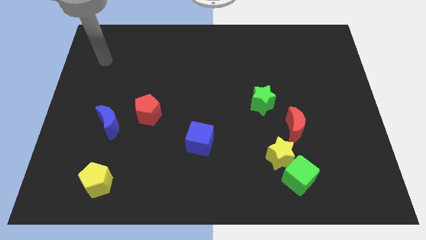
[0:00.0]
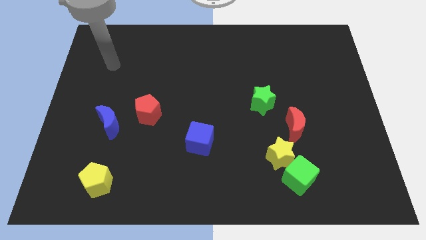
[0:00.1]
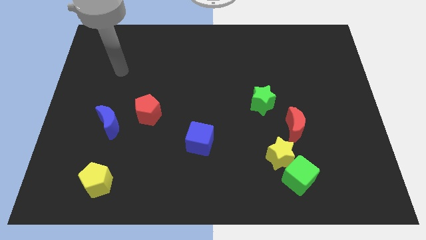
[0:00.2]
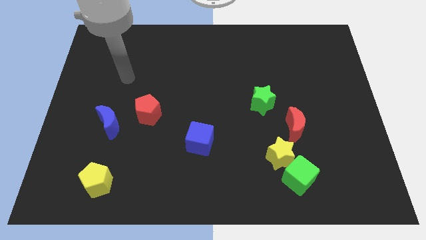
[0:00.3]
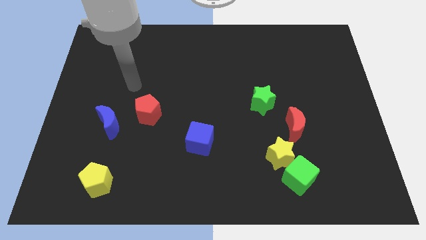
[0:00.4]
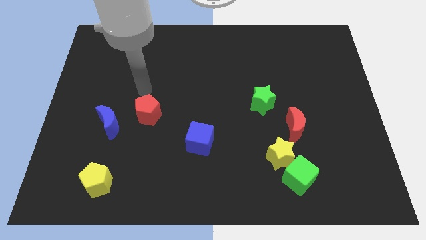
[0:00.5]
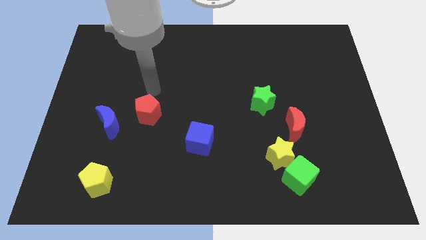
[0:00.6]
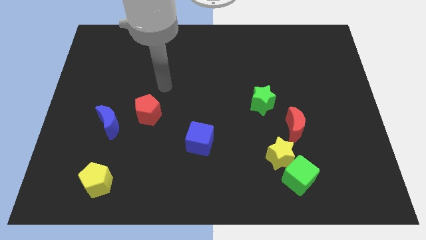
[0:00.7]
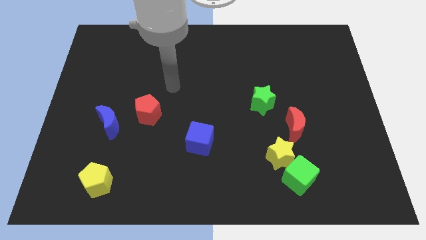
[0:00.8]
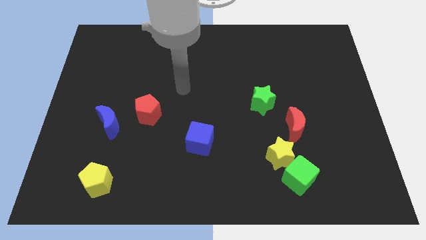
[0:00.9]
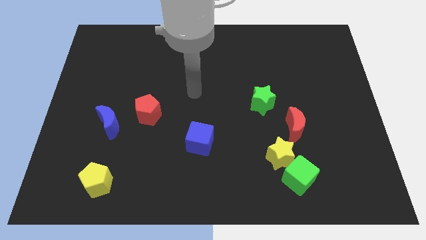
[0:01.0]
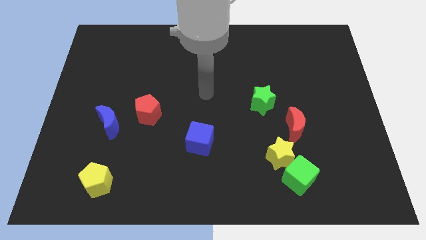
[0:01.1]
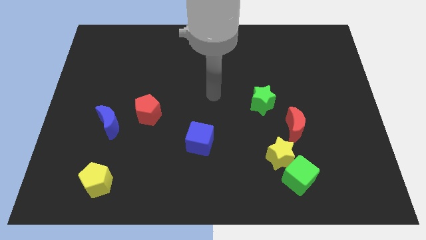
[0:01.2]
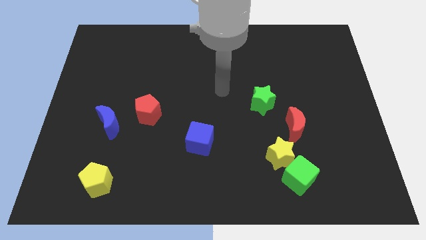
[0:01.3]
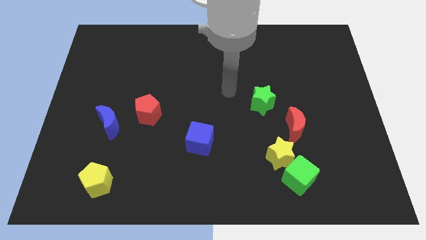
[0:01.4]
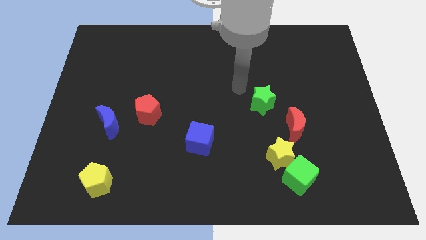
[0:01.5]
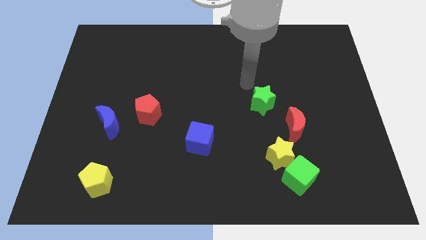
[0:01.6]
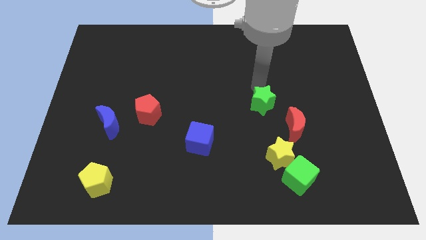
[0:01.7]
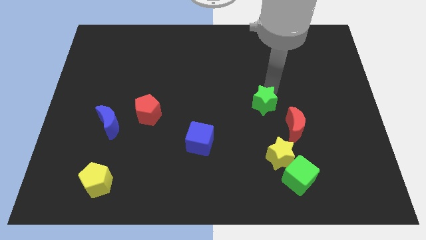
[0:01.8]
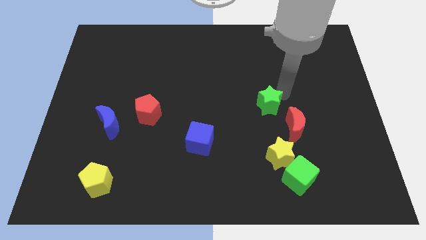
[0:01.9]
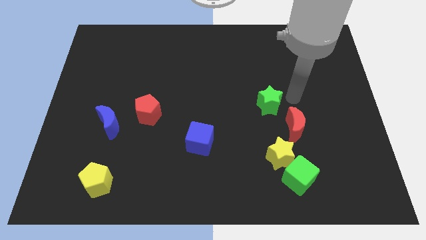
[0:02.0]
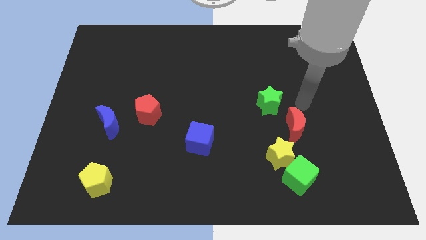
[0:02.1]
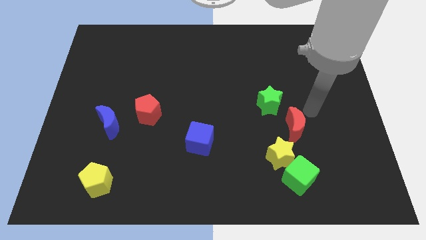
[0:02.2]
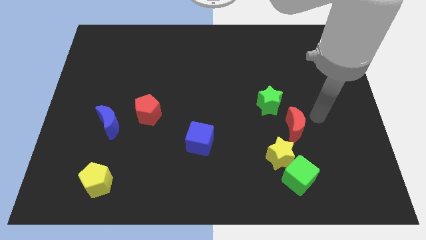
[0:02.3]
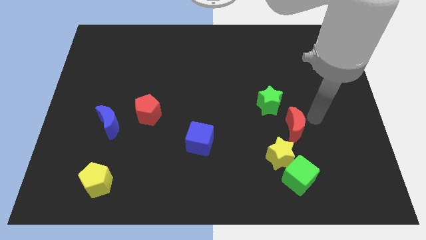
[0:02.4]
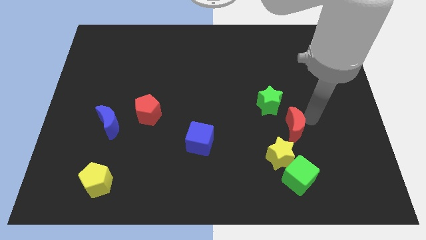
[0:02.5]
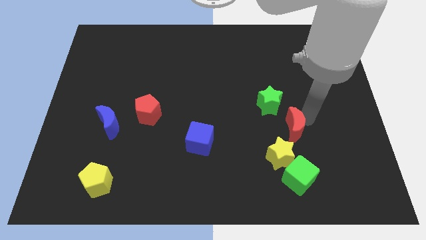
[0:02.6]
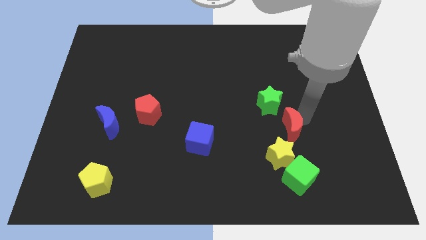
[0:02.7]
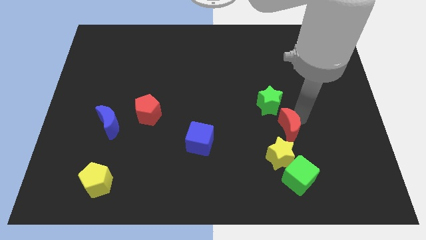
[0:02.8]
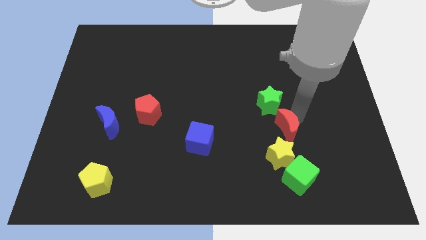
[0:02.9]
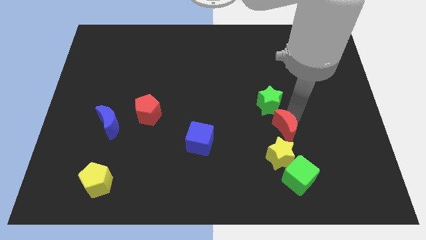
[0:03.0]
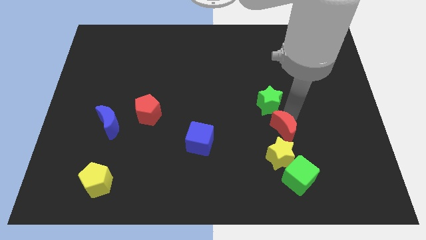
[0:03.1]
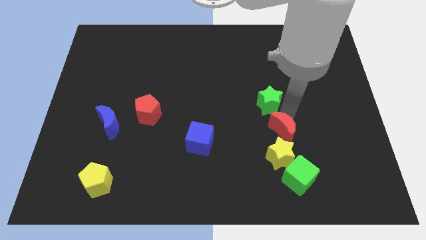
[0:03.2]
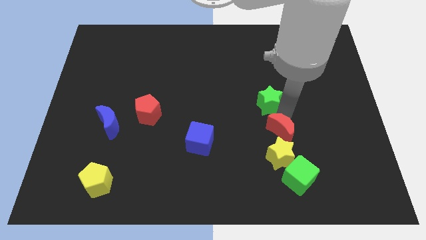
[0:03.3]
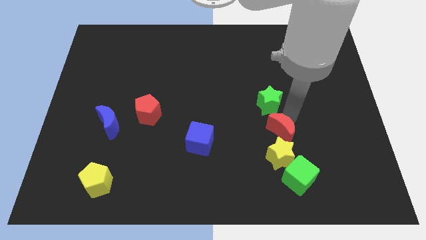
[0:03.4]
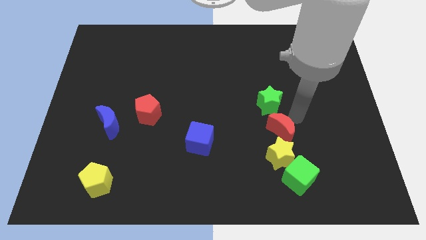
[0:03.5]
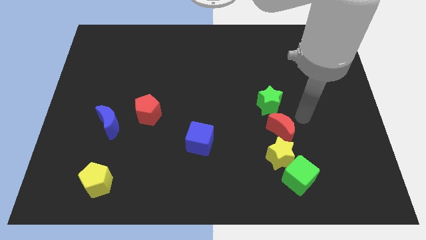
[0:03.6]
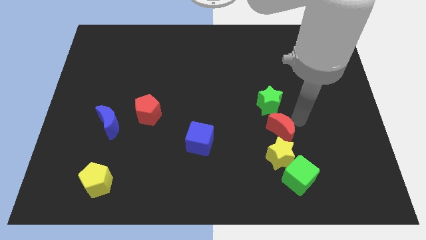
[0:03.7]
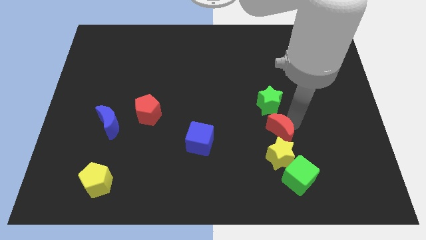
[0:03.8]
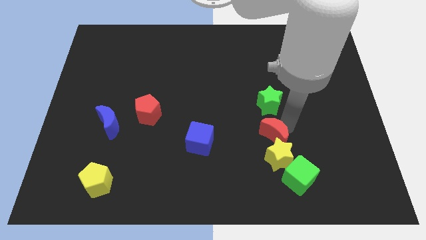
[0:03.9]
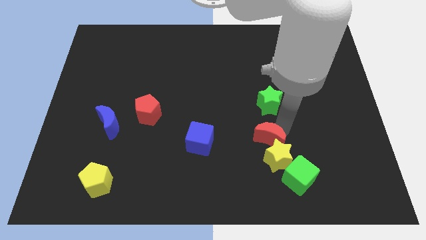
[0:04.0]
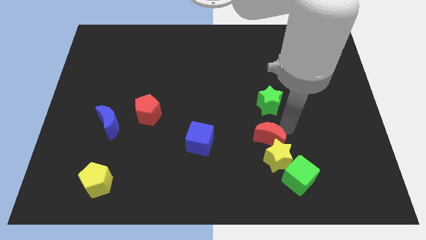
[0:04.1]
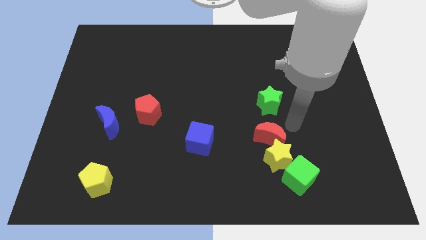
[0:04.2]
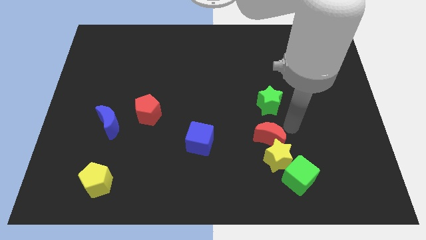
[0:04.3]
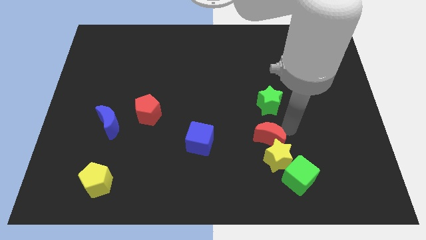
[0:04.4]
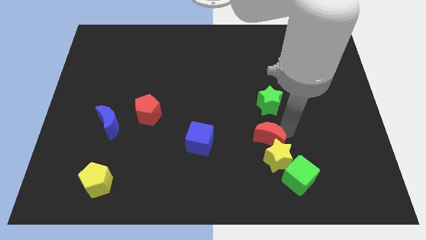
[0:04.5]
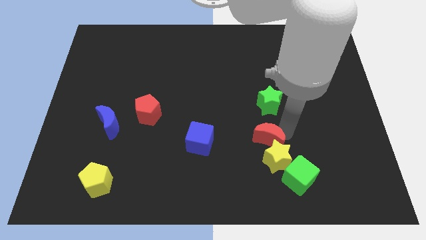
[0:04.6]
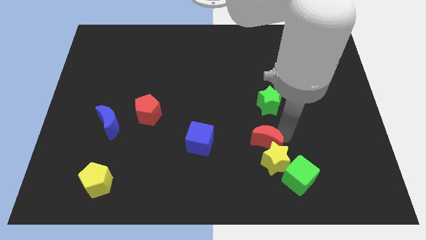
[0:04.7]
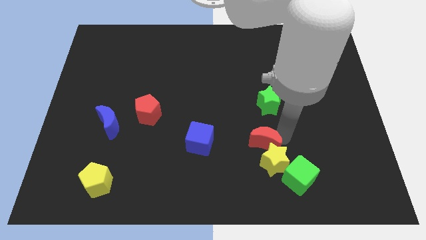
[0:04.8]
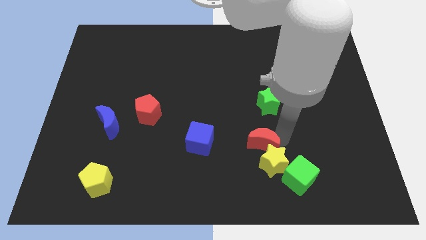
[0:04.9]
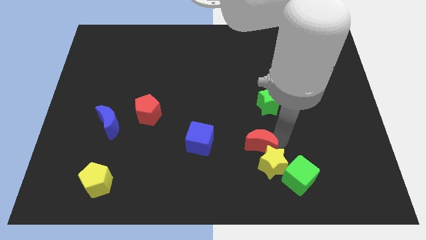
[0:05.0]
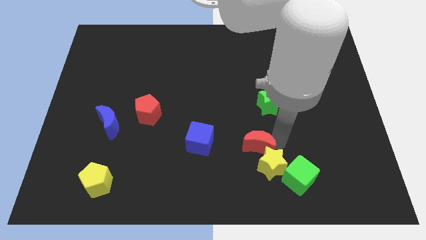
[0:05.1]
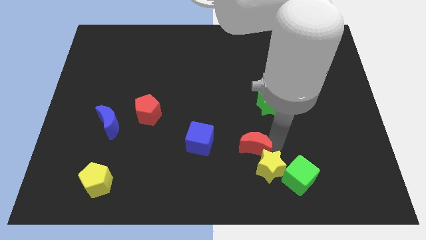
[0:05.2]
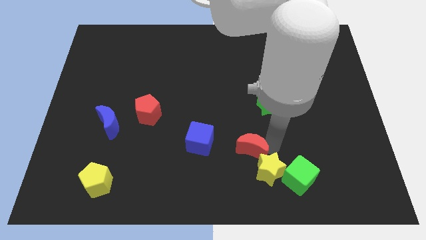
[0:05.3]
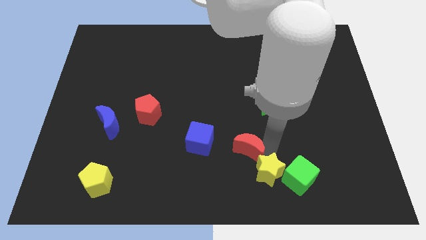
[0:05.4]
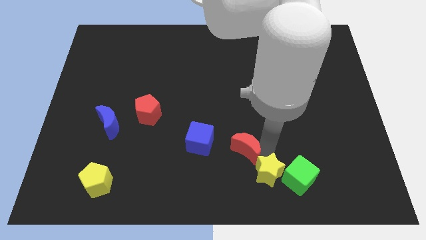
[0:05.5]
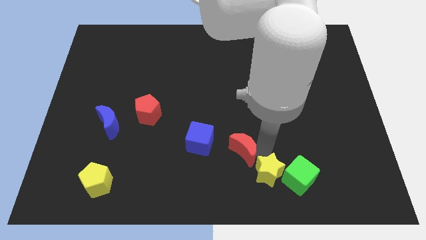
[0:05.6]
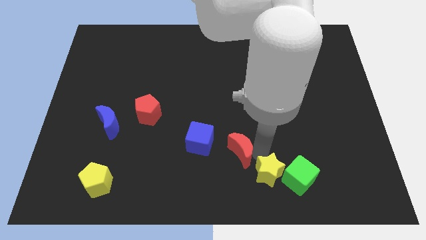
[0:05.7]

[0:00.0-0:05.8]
slide the red moon to the bottom right of the blue cube

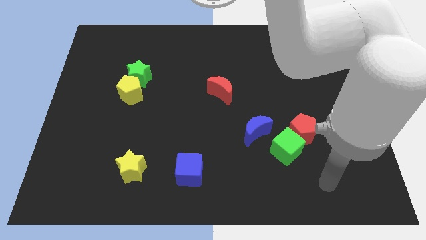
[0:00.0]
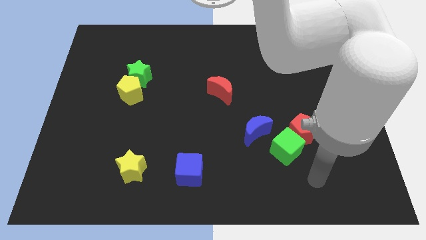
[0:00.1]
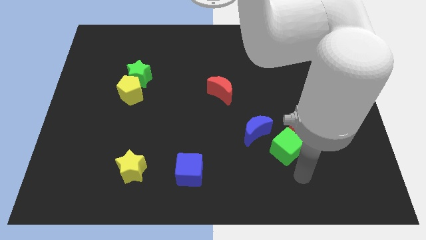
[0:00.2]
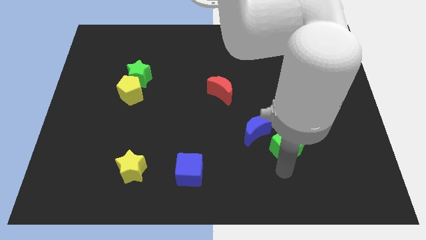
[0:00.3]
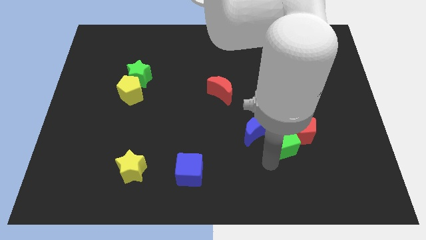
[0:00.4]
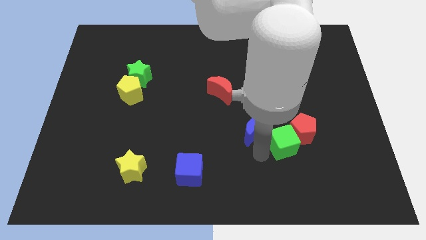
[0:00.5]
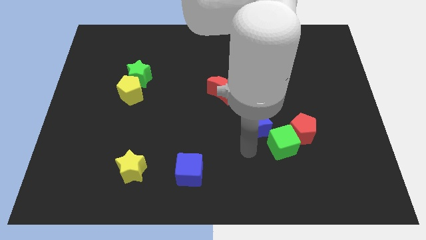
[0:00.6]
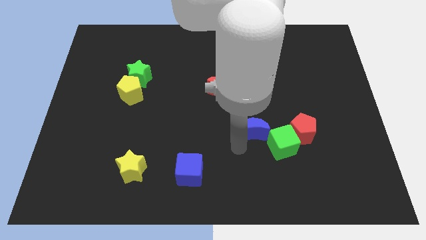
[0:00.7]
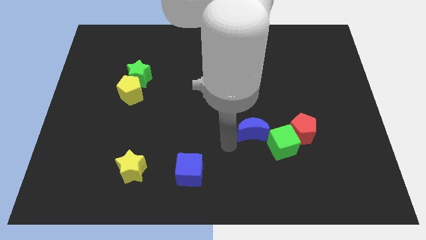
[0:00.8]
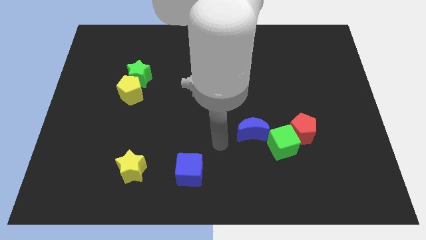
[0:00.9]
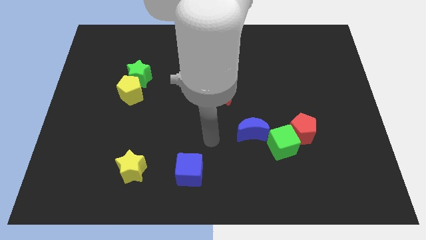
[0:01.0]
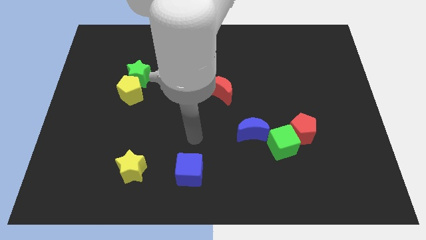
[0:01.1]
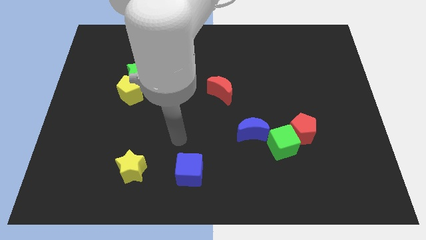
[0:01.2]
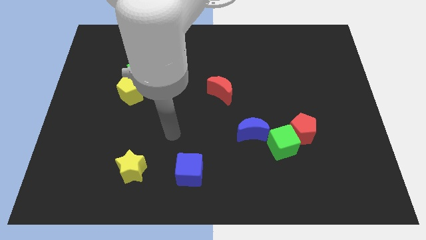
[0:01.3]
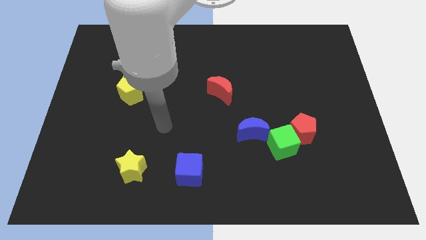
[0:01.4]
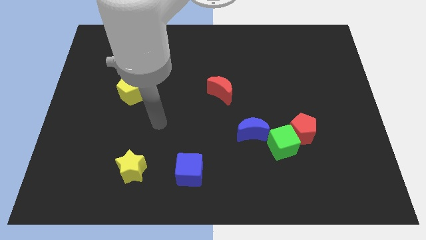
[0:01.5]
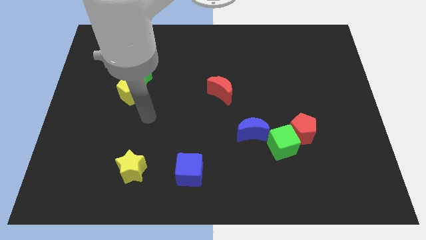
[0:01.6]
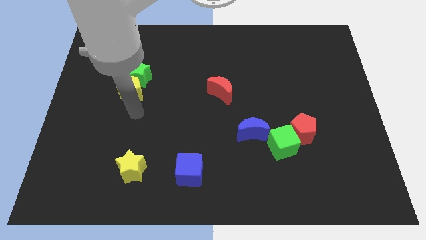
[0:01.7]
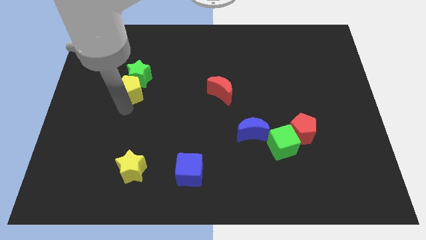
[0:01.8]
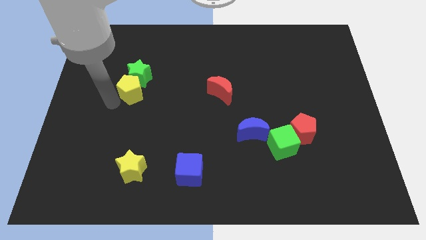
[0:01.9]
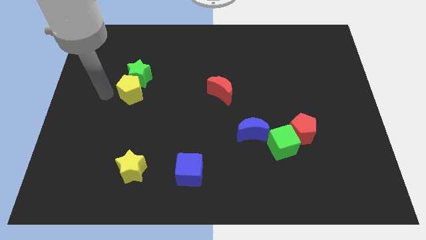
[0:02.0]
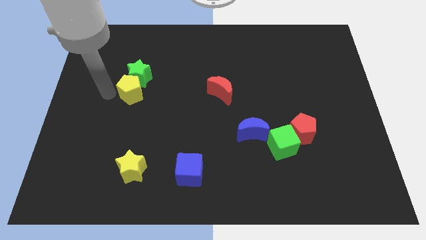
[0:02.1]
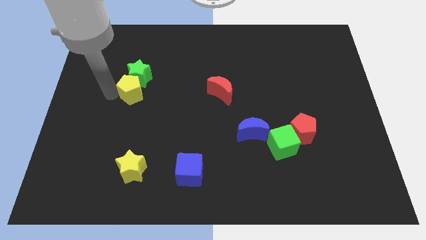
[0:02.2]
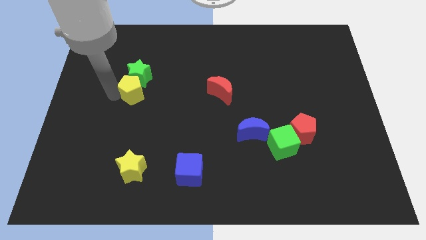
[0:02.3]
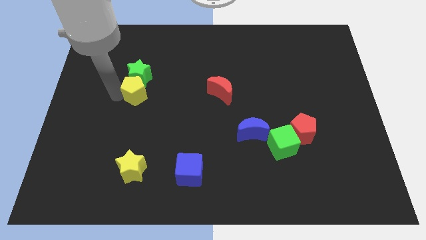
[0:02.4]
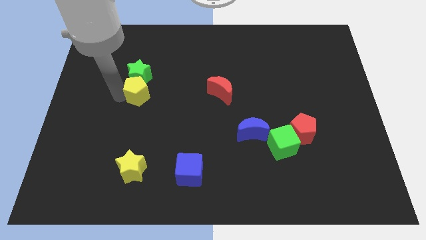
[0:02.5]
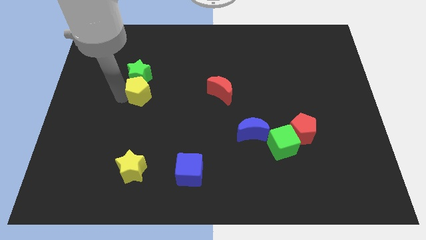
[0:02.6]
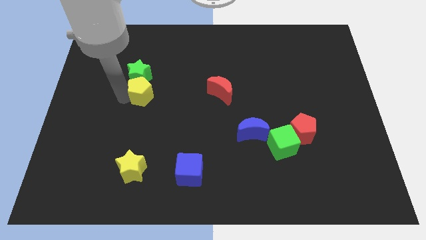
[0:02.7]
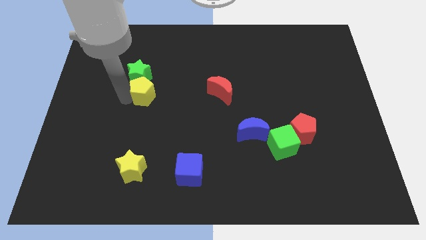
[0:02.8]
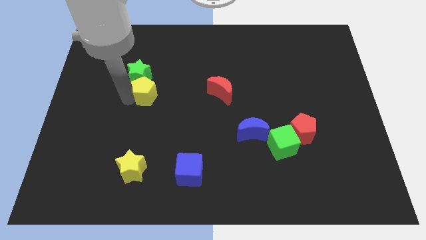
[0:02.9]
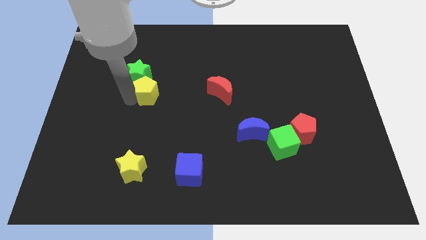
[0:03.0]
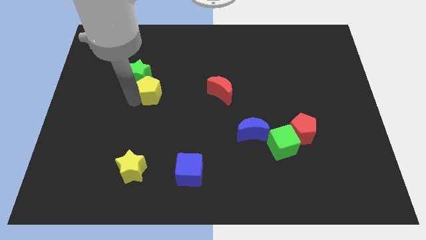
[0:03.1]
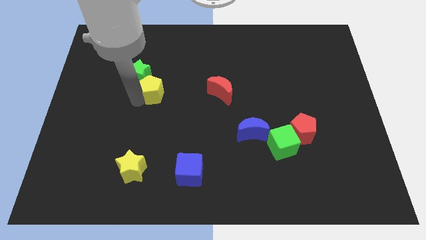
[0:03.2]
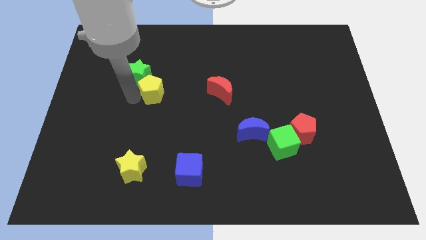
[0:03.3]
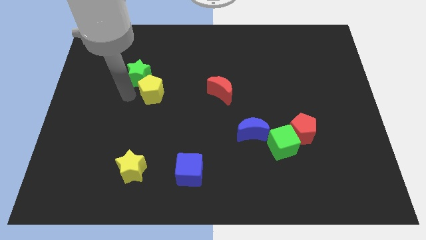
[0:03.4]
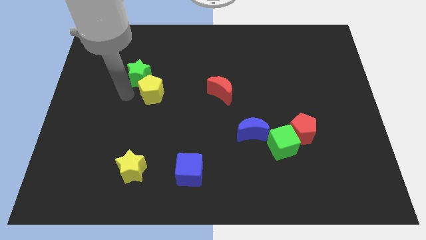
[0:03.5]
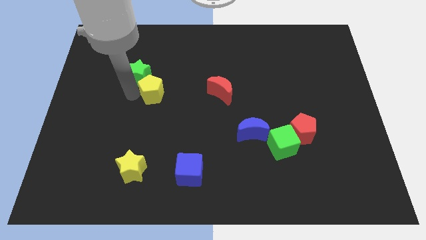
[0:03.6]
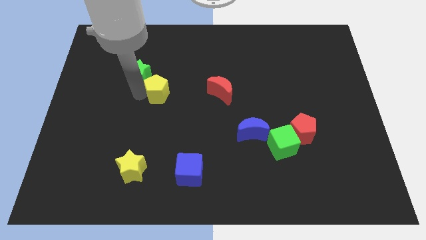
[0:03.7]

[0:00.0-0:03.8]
push the yellow pentagon just left of the red moon
